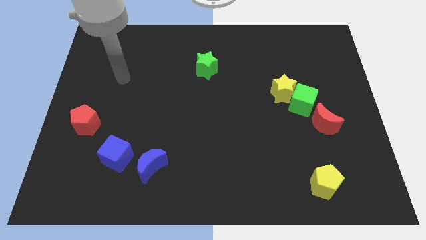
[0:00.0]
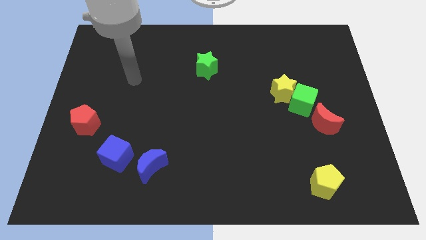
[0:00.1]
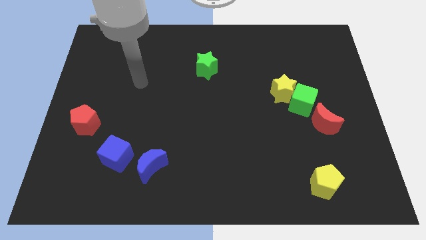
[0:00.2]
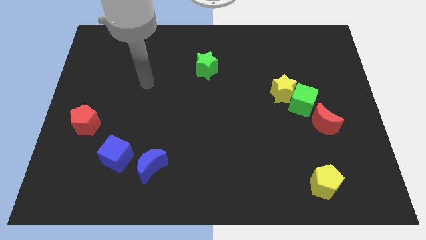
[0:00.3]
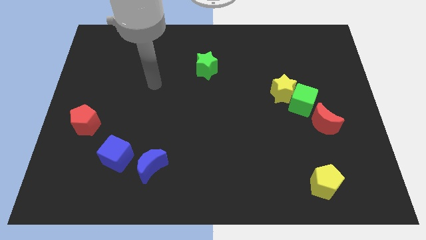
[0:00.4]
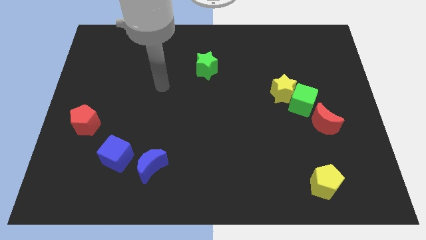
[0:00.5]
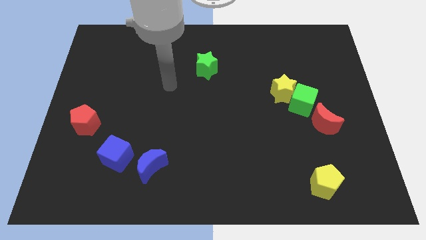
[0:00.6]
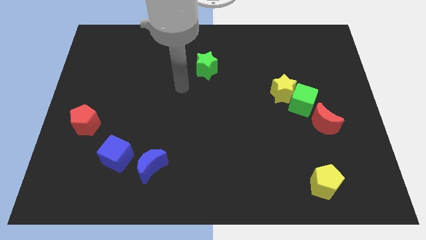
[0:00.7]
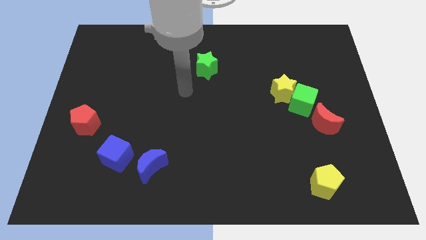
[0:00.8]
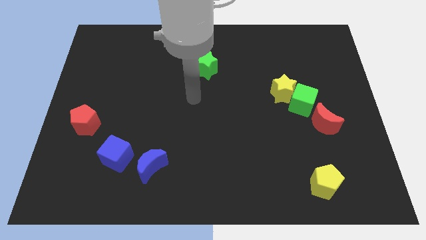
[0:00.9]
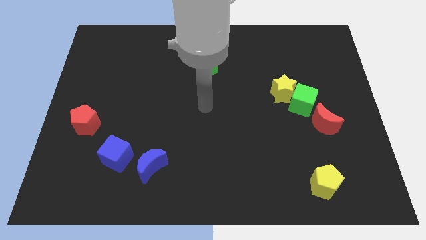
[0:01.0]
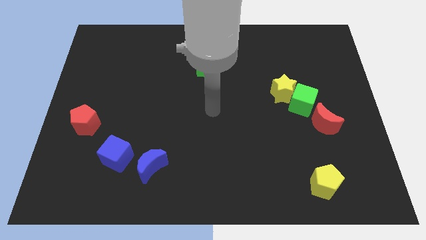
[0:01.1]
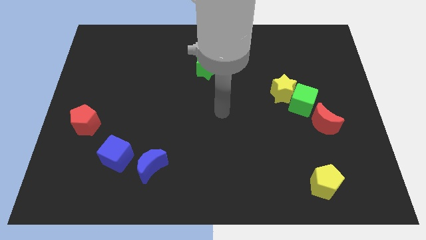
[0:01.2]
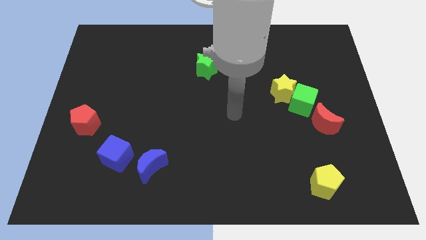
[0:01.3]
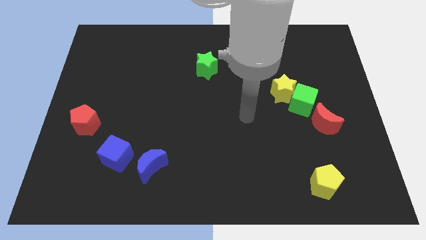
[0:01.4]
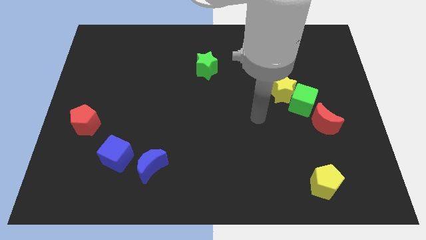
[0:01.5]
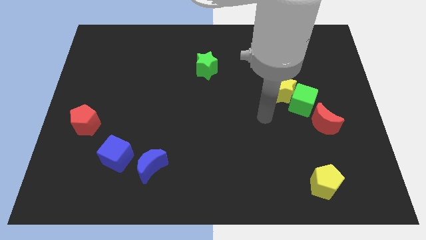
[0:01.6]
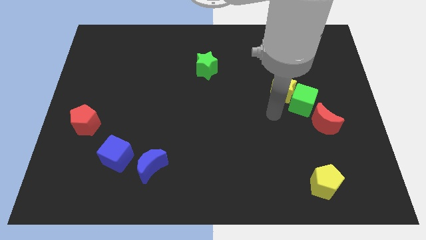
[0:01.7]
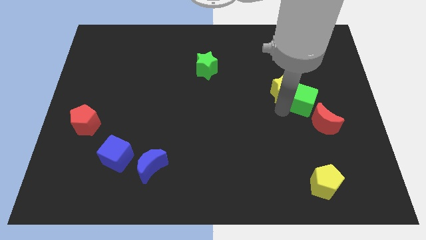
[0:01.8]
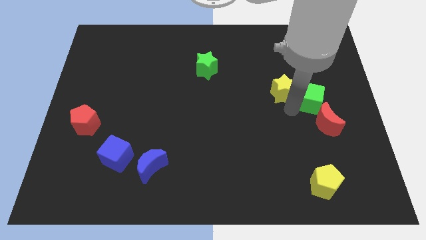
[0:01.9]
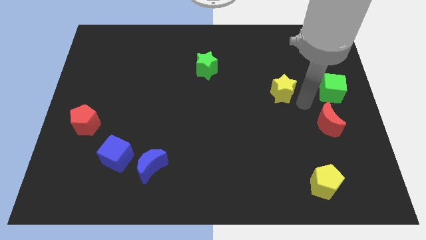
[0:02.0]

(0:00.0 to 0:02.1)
pull the yellow star apart from the green cube

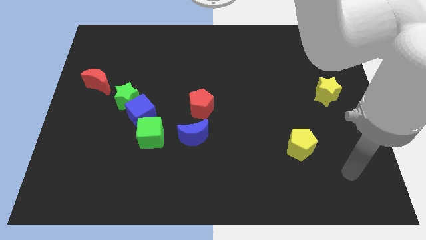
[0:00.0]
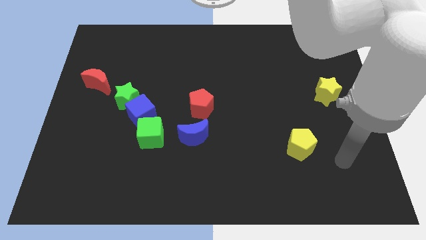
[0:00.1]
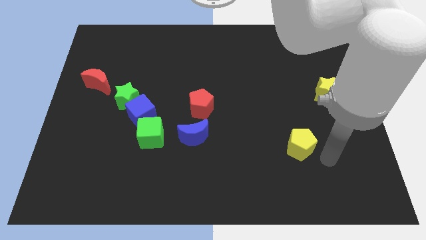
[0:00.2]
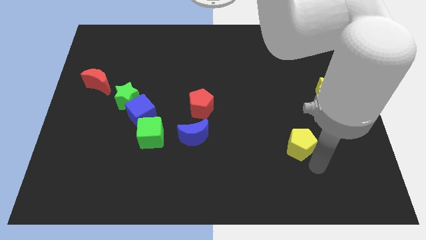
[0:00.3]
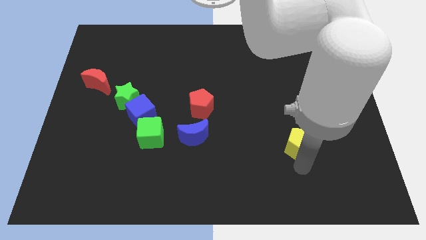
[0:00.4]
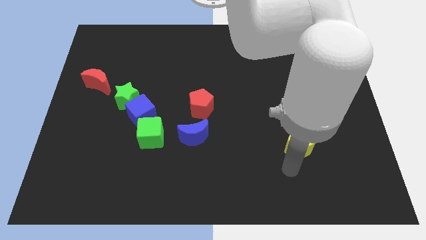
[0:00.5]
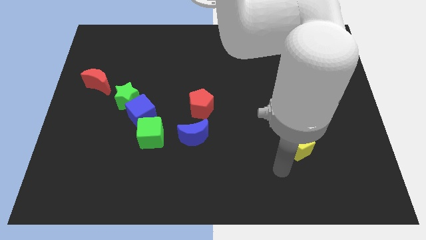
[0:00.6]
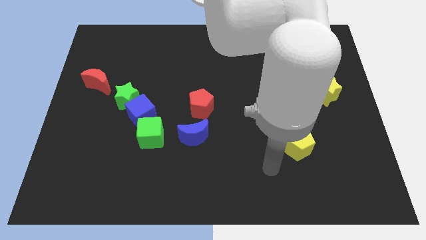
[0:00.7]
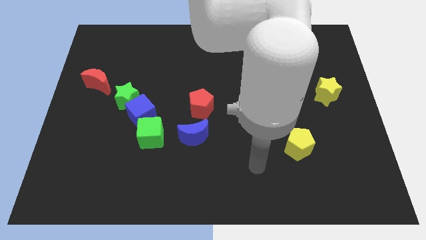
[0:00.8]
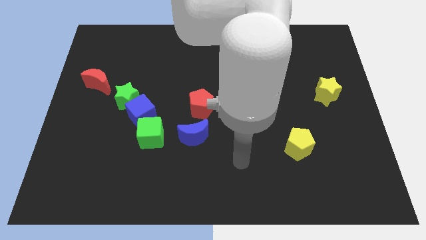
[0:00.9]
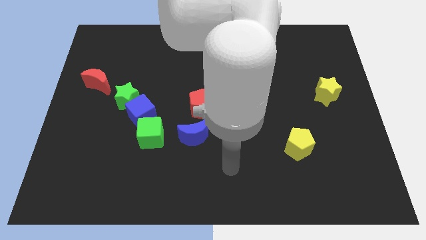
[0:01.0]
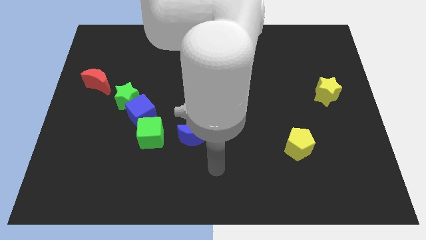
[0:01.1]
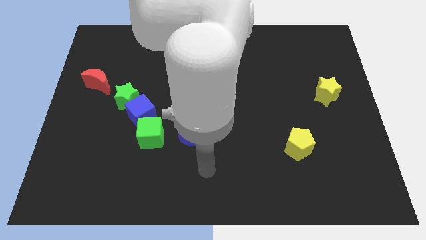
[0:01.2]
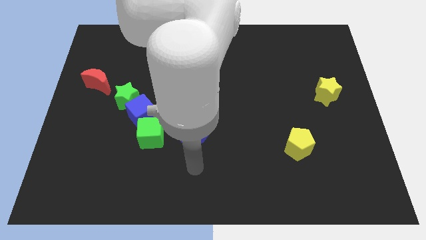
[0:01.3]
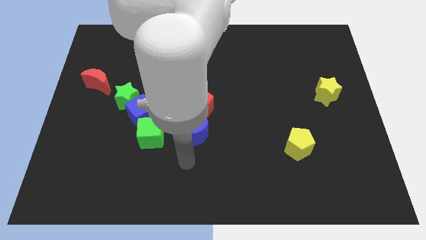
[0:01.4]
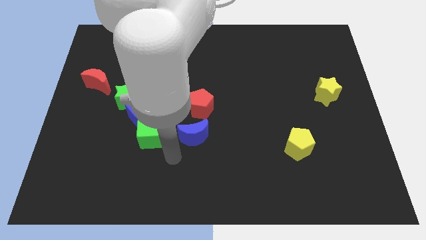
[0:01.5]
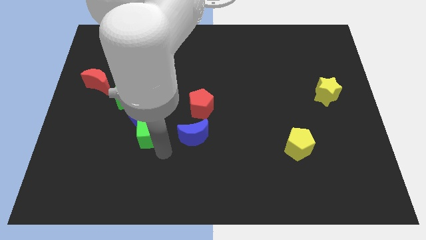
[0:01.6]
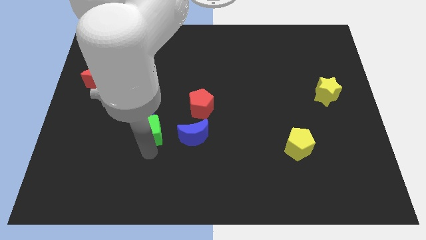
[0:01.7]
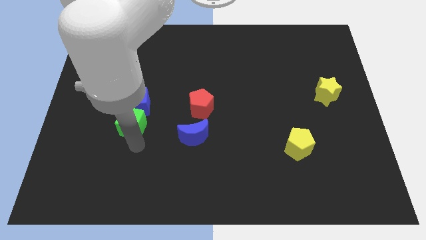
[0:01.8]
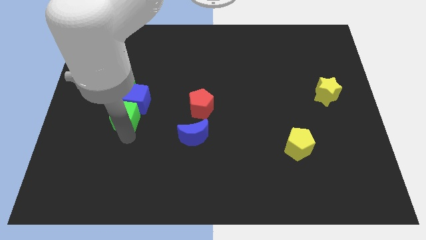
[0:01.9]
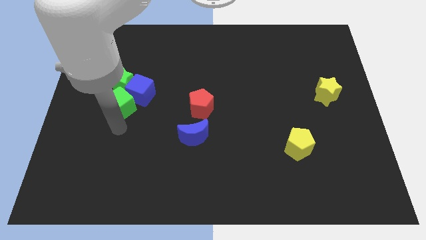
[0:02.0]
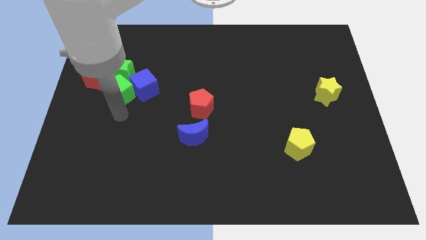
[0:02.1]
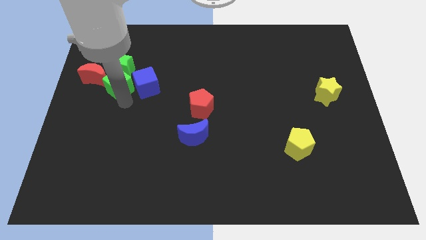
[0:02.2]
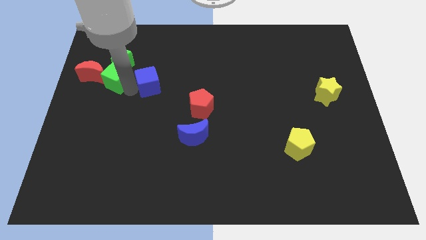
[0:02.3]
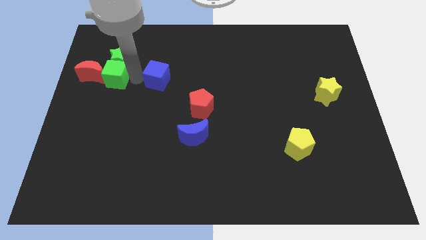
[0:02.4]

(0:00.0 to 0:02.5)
pull the blue cube apart from the green star and green cube

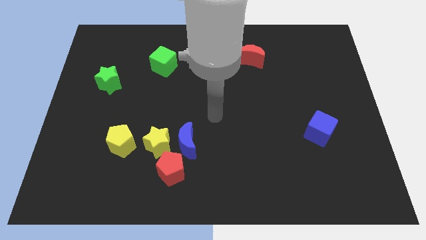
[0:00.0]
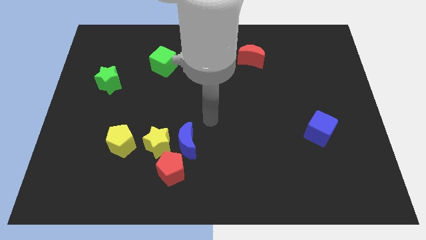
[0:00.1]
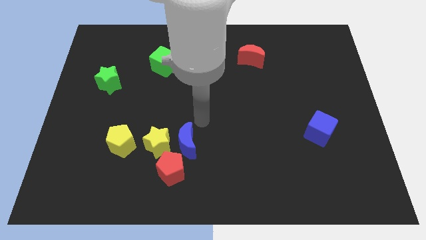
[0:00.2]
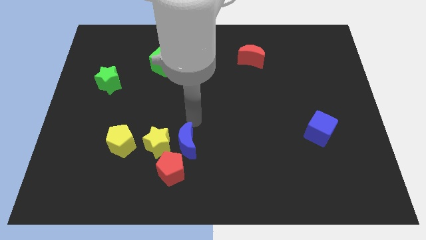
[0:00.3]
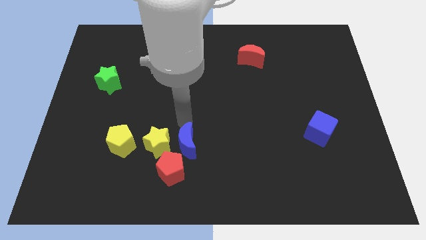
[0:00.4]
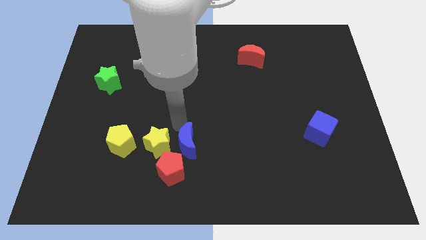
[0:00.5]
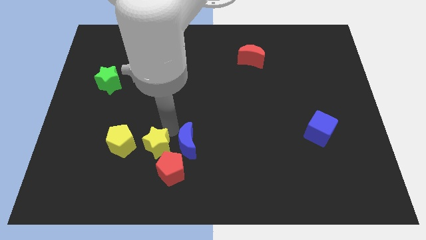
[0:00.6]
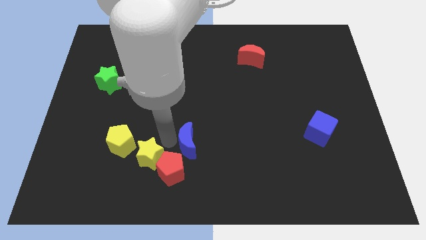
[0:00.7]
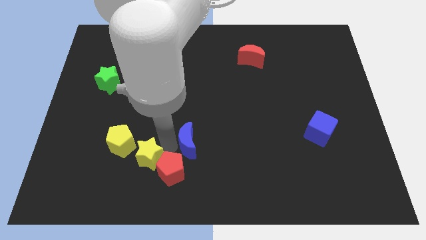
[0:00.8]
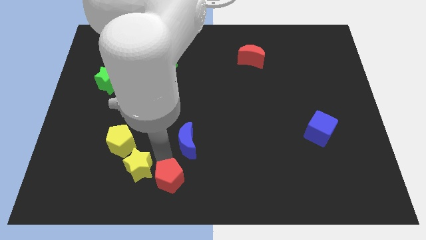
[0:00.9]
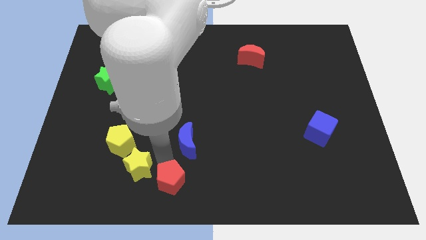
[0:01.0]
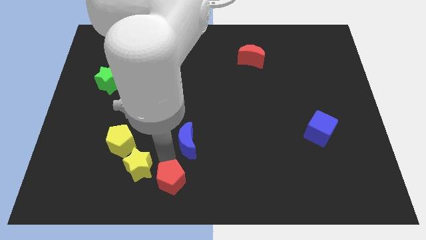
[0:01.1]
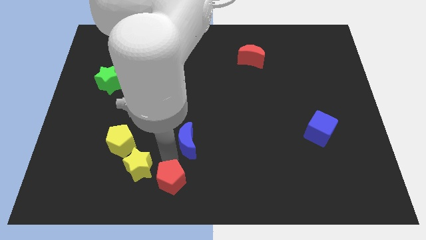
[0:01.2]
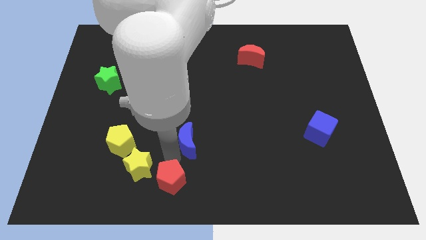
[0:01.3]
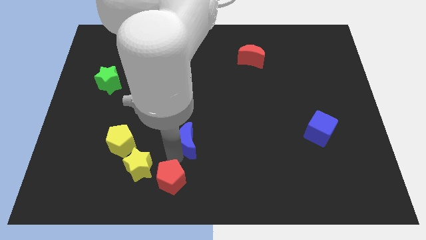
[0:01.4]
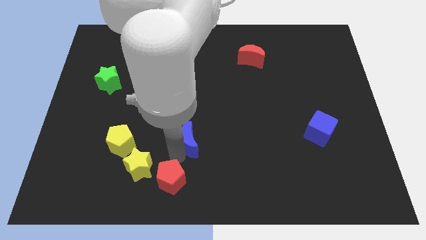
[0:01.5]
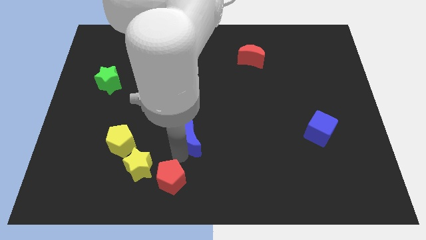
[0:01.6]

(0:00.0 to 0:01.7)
pull the blue moon apart from the yellow star and red pentagon

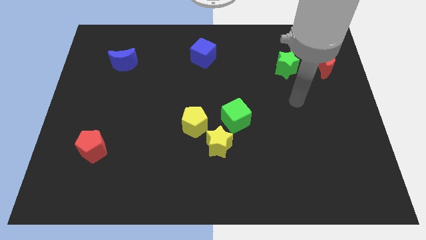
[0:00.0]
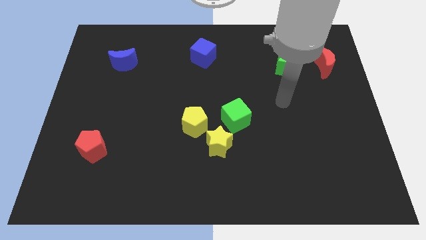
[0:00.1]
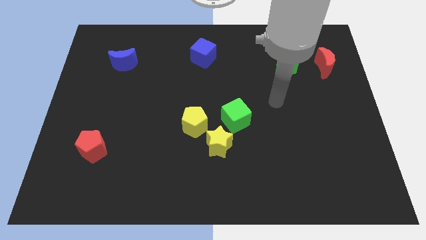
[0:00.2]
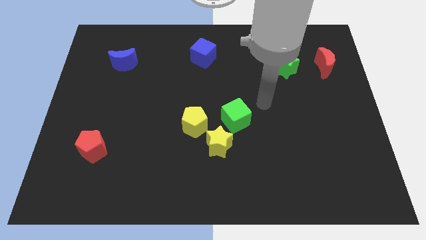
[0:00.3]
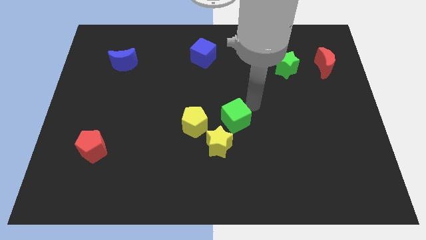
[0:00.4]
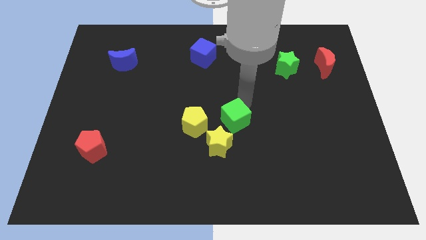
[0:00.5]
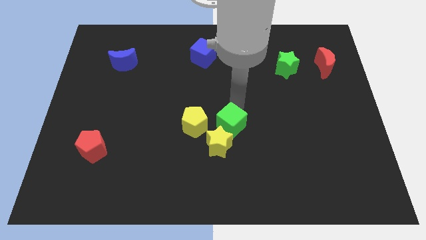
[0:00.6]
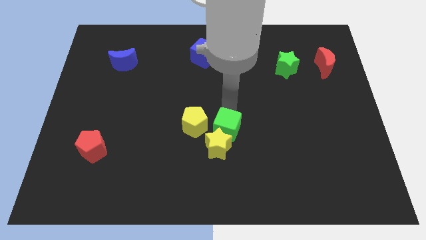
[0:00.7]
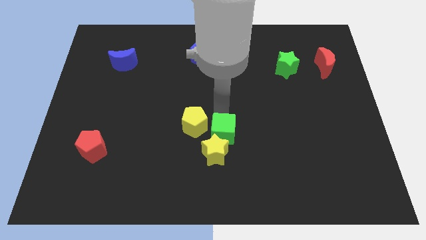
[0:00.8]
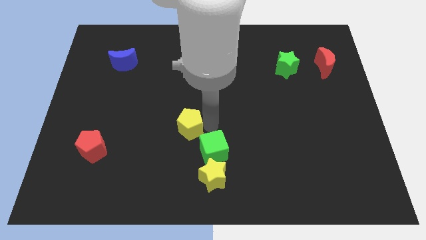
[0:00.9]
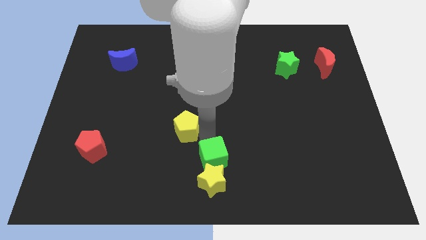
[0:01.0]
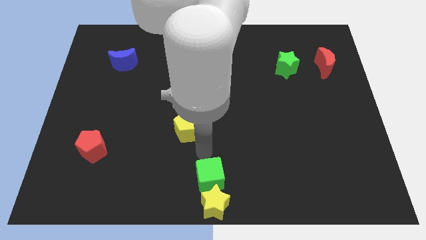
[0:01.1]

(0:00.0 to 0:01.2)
separate the yellow star from the yellow pentagon and green cube

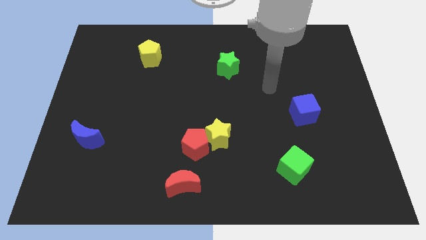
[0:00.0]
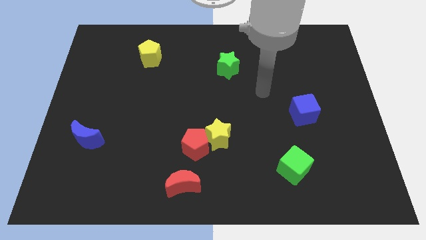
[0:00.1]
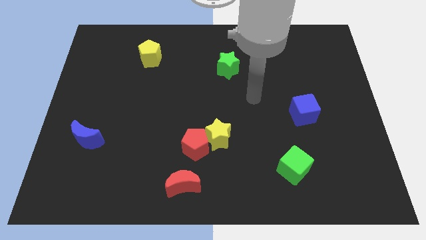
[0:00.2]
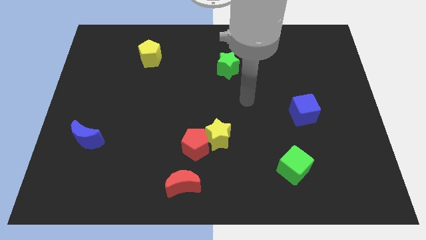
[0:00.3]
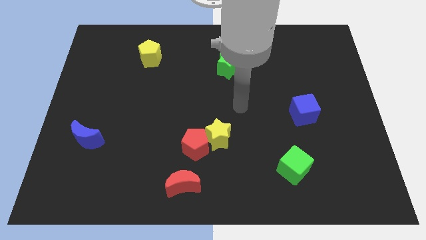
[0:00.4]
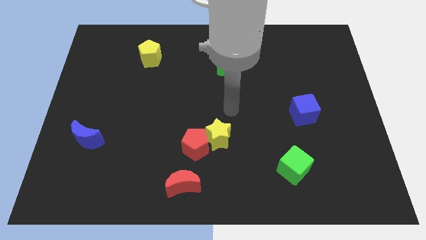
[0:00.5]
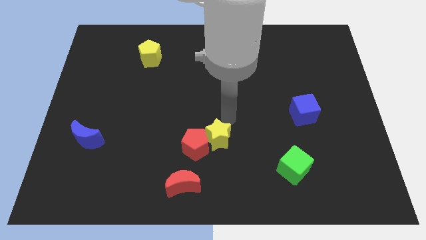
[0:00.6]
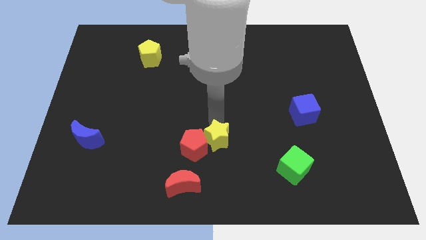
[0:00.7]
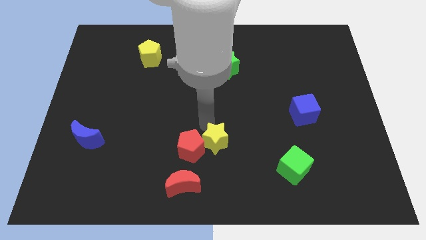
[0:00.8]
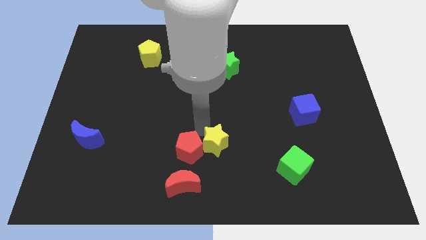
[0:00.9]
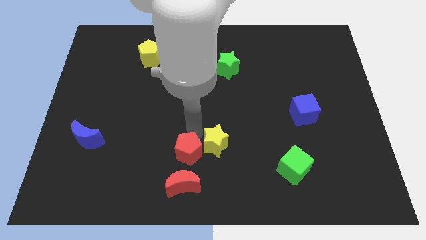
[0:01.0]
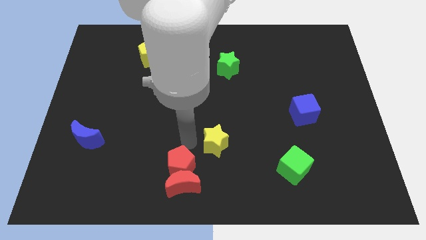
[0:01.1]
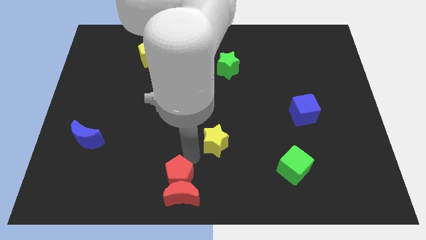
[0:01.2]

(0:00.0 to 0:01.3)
separate the yellow star from the red pentagon

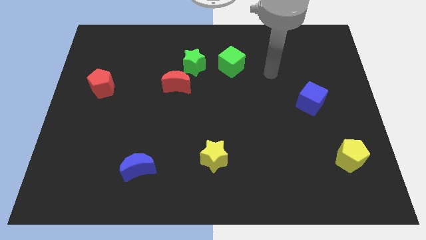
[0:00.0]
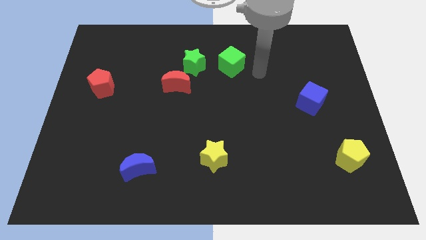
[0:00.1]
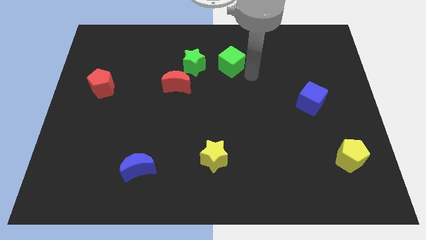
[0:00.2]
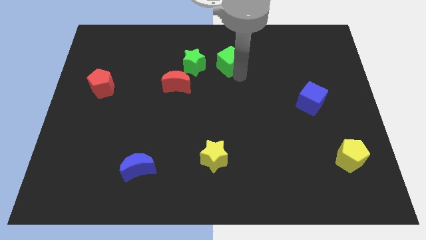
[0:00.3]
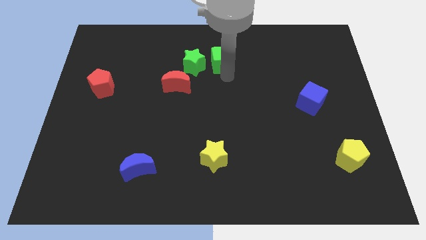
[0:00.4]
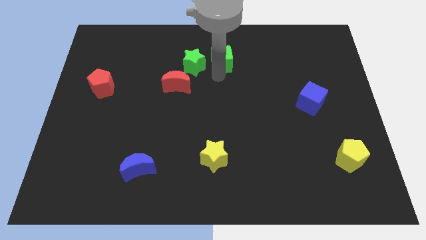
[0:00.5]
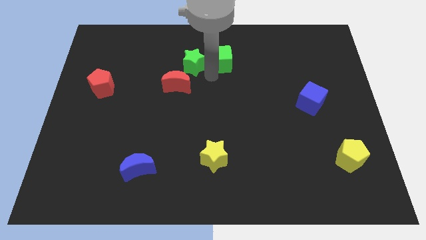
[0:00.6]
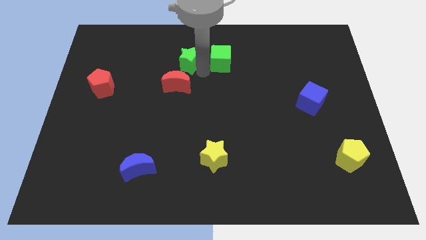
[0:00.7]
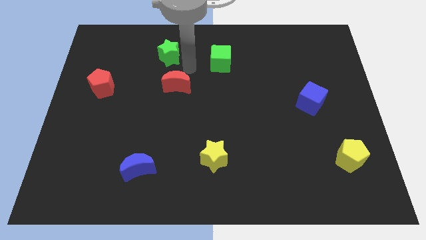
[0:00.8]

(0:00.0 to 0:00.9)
pull the red moon apart from the green star
